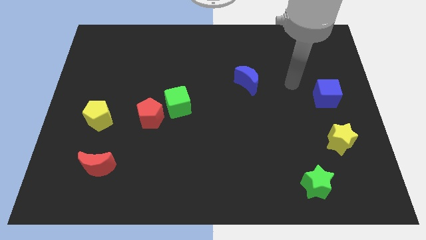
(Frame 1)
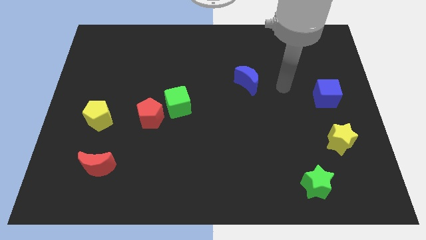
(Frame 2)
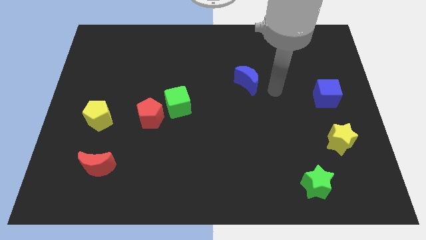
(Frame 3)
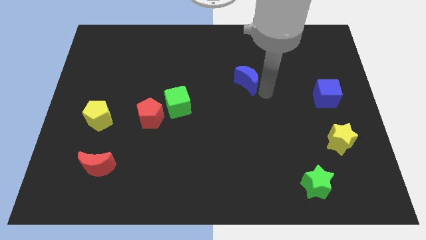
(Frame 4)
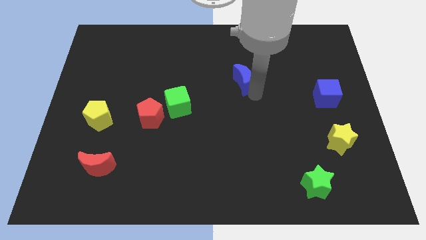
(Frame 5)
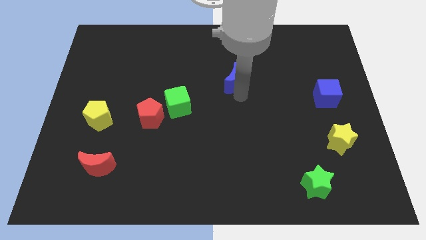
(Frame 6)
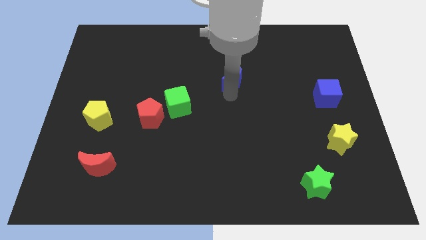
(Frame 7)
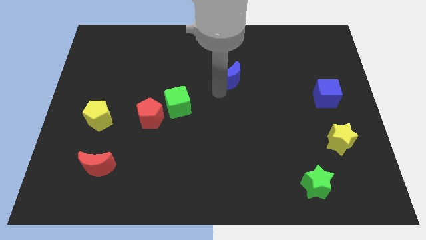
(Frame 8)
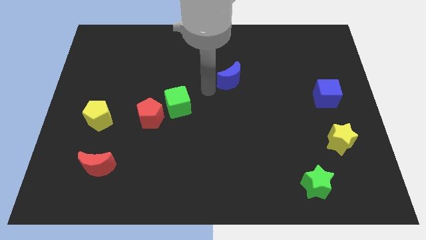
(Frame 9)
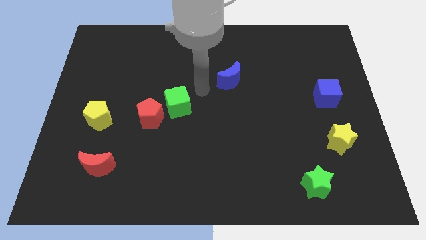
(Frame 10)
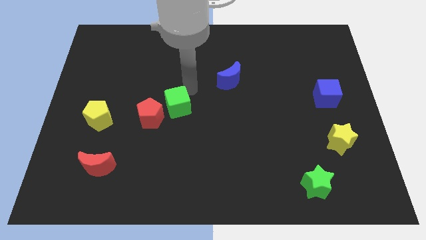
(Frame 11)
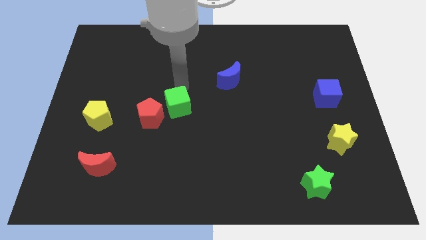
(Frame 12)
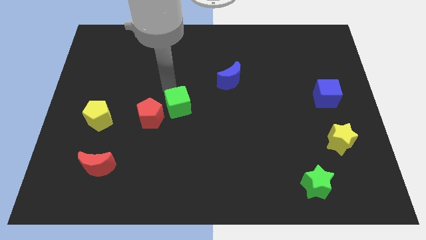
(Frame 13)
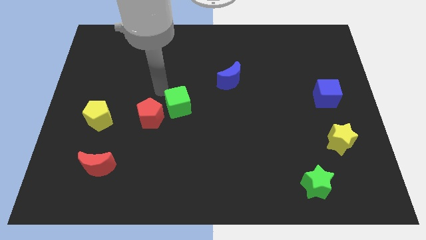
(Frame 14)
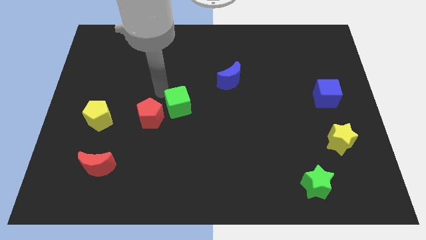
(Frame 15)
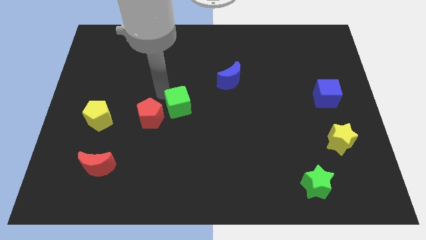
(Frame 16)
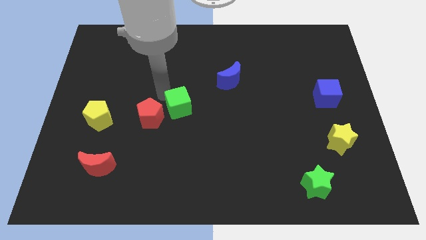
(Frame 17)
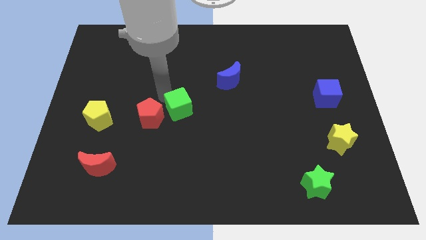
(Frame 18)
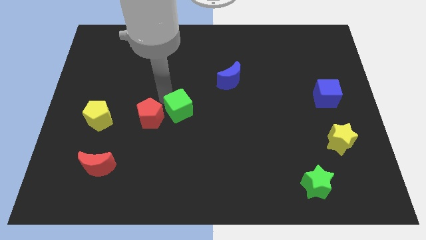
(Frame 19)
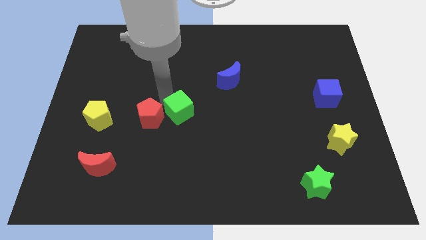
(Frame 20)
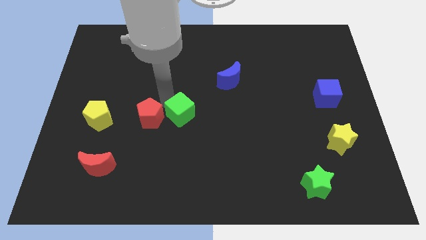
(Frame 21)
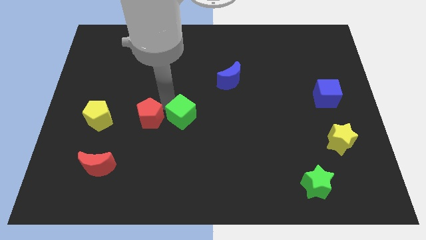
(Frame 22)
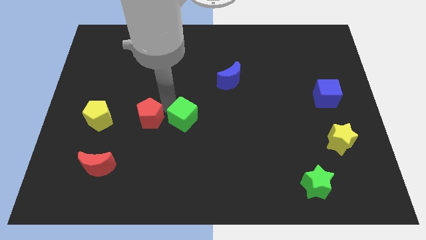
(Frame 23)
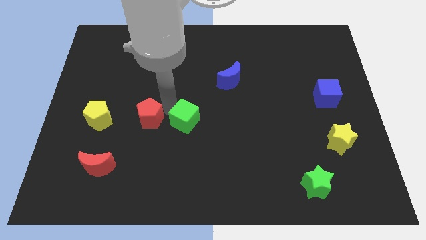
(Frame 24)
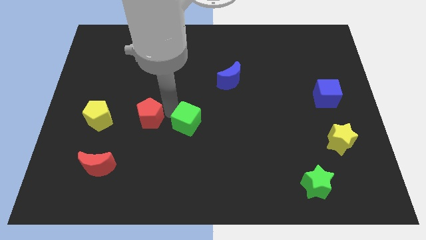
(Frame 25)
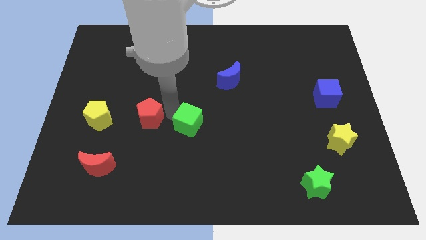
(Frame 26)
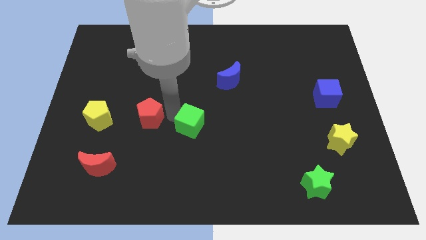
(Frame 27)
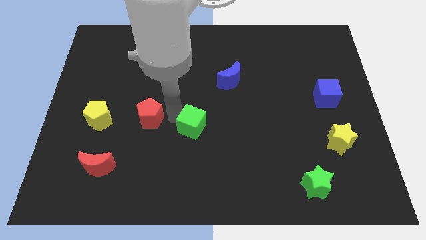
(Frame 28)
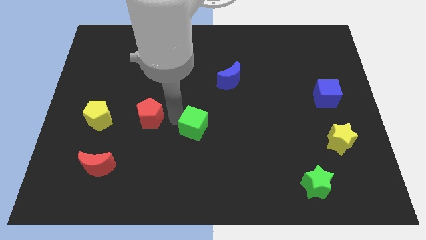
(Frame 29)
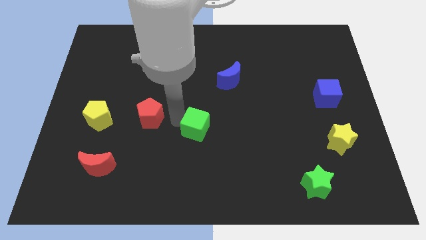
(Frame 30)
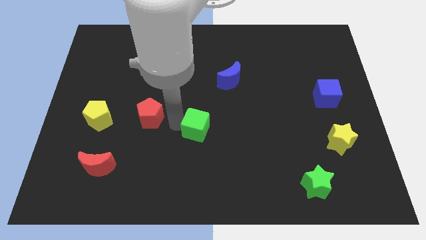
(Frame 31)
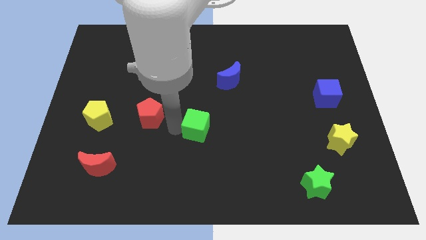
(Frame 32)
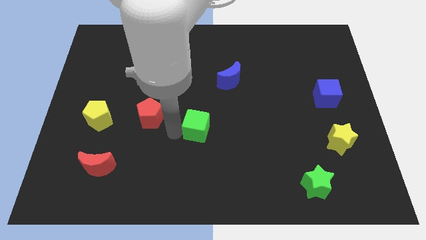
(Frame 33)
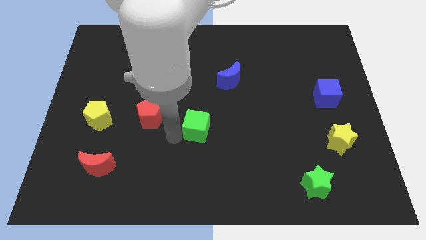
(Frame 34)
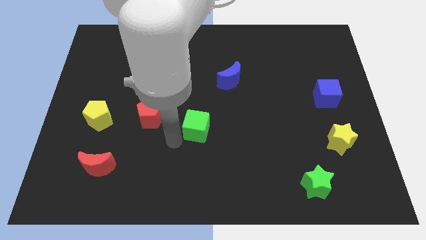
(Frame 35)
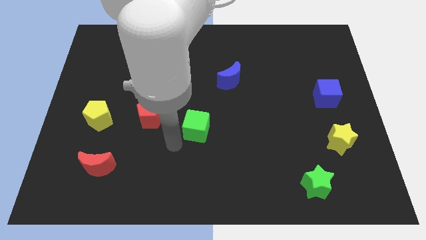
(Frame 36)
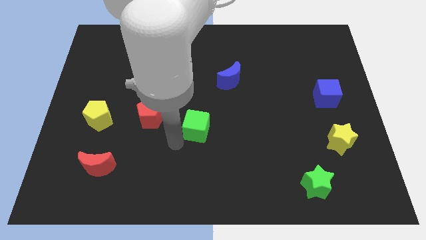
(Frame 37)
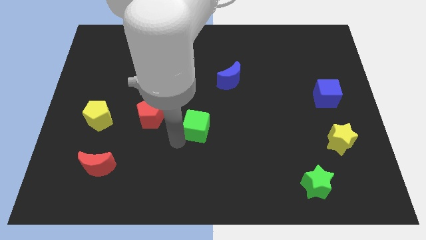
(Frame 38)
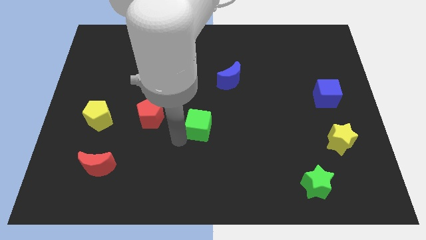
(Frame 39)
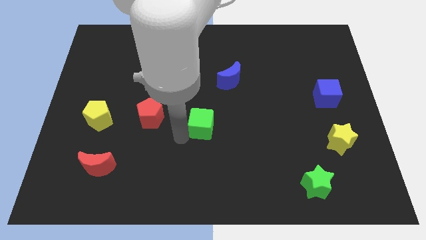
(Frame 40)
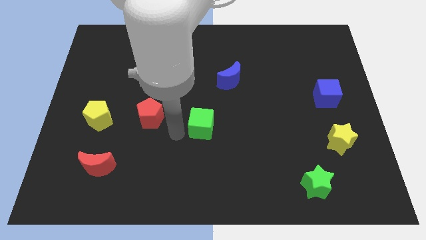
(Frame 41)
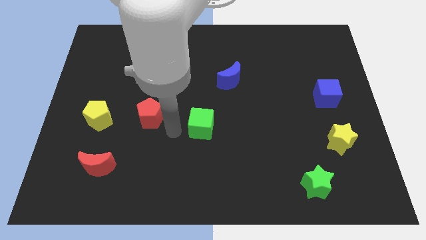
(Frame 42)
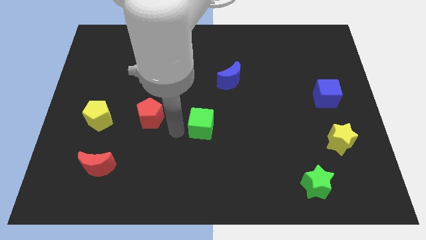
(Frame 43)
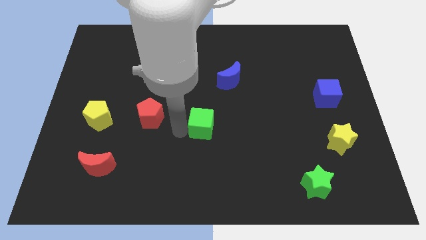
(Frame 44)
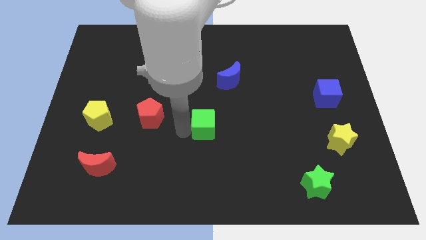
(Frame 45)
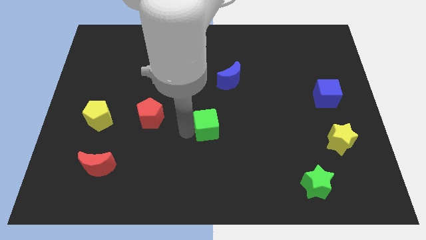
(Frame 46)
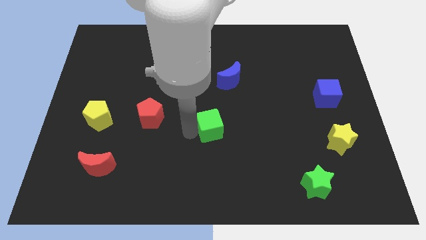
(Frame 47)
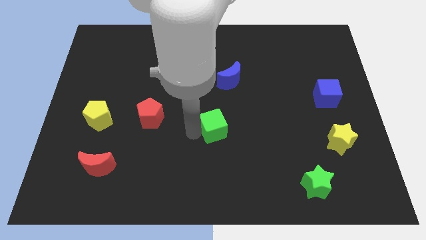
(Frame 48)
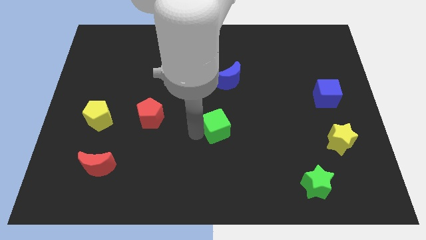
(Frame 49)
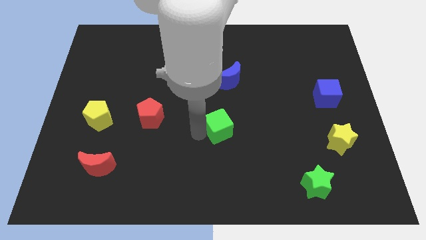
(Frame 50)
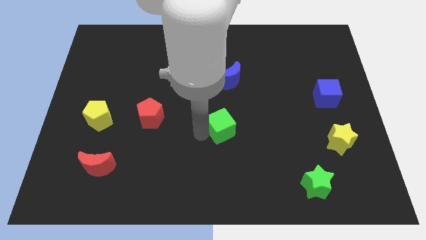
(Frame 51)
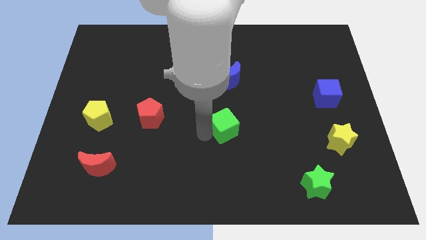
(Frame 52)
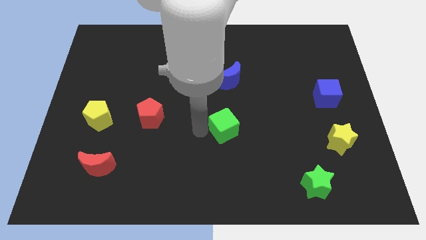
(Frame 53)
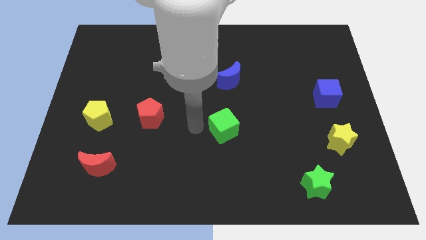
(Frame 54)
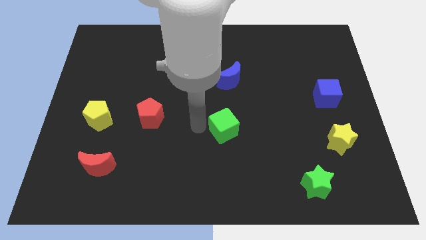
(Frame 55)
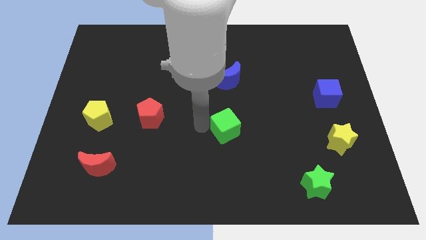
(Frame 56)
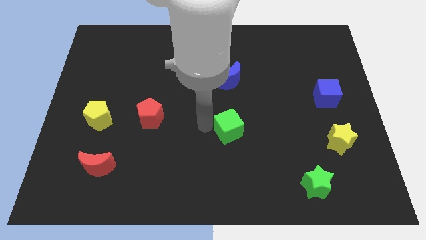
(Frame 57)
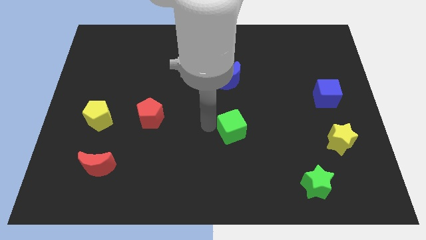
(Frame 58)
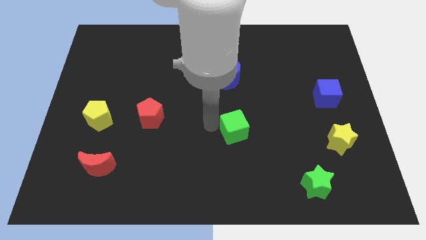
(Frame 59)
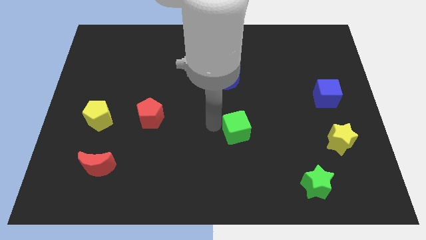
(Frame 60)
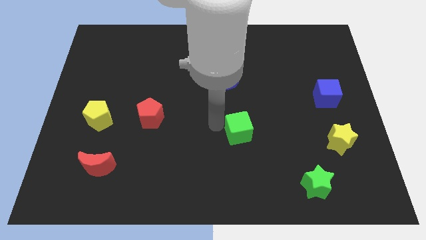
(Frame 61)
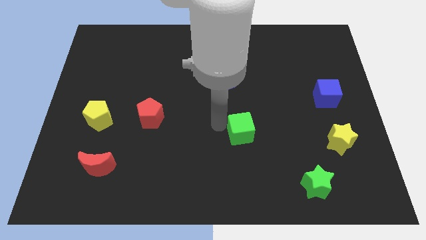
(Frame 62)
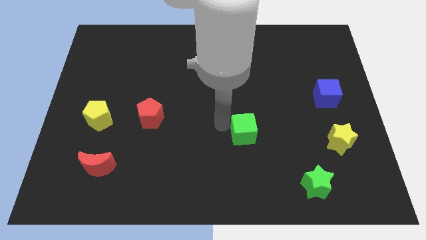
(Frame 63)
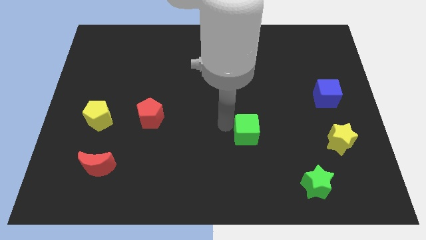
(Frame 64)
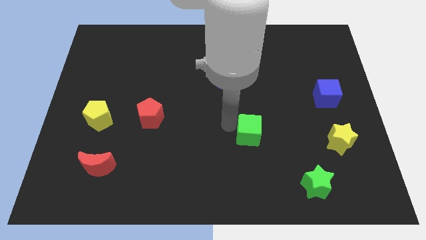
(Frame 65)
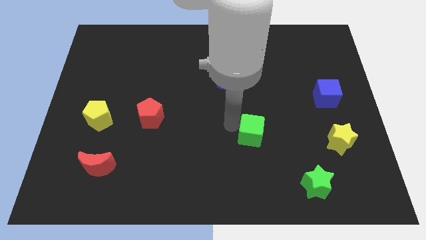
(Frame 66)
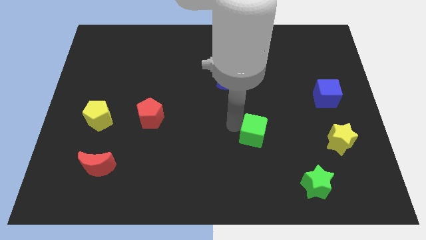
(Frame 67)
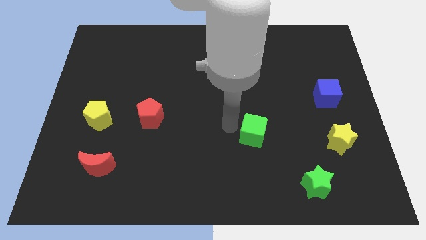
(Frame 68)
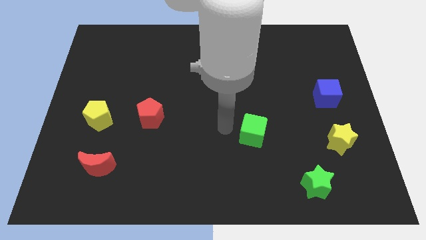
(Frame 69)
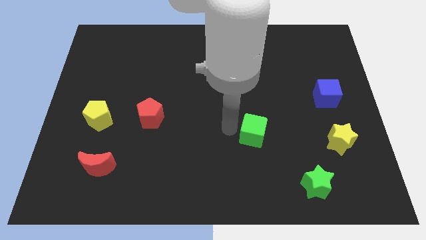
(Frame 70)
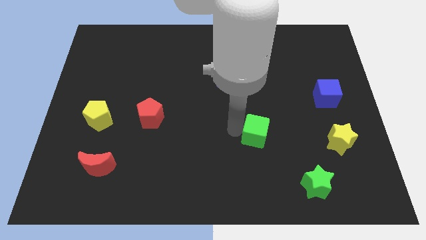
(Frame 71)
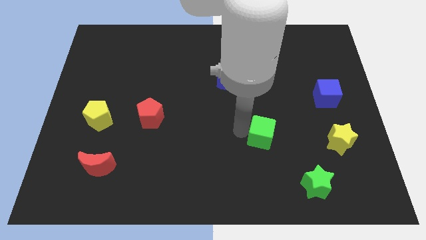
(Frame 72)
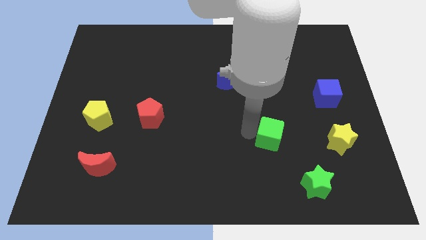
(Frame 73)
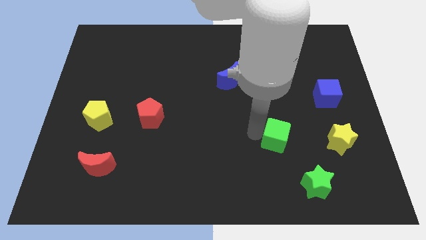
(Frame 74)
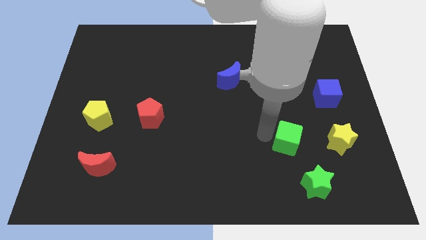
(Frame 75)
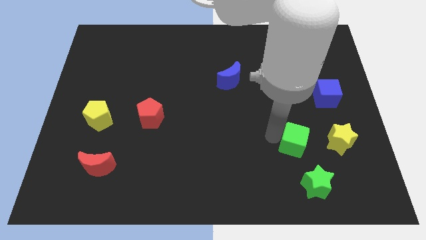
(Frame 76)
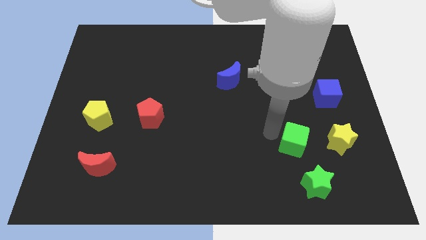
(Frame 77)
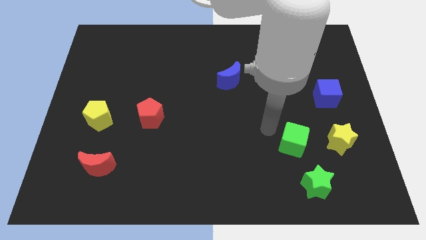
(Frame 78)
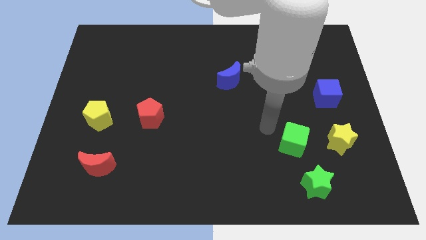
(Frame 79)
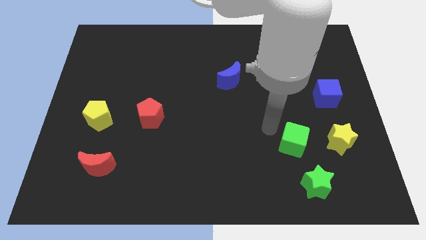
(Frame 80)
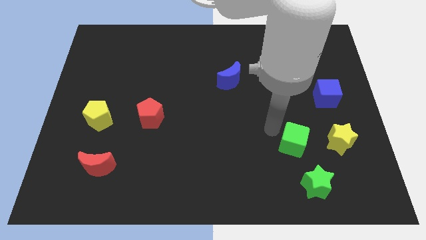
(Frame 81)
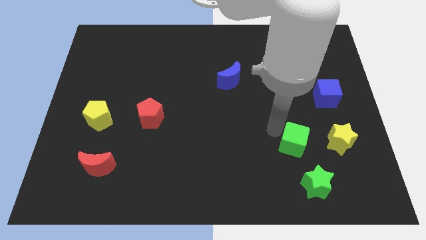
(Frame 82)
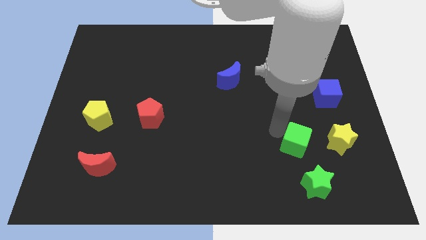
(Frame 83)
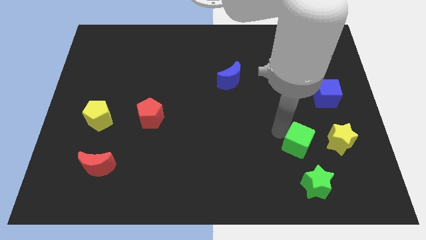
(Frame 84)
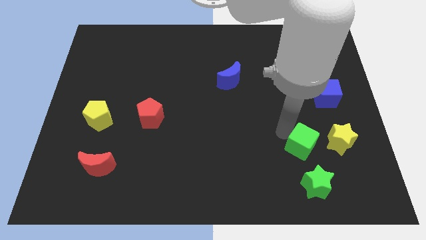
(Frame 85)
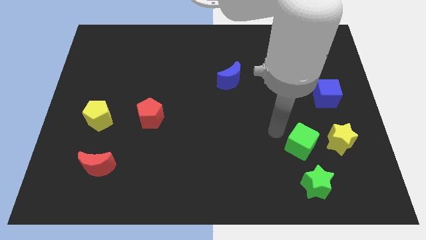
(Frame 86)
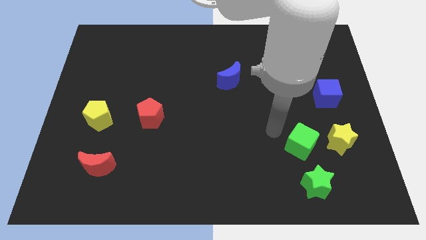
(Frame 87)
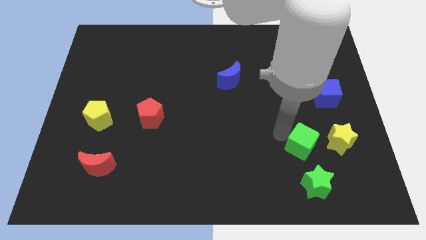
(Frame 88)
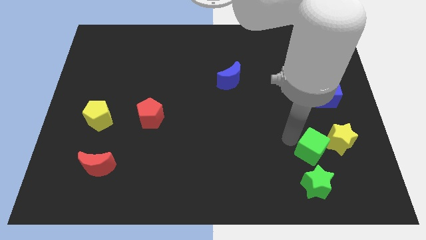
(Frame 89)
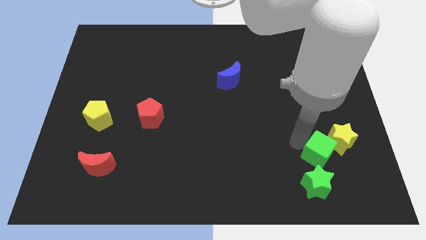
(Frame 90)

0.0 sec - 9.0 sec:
push the green cube to the top right of the green star
